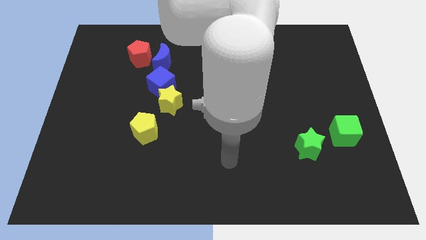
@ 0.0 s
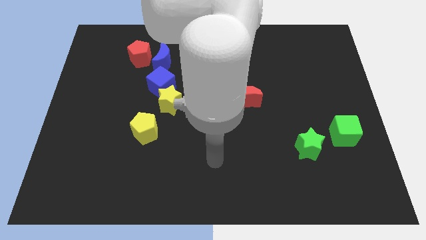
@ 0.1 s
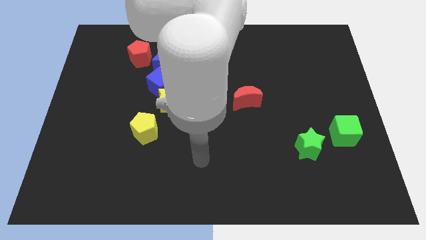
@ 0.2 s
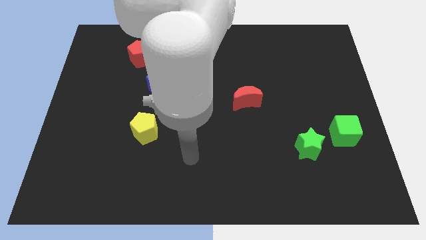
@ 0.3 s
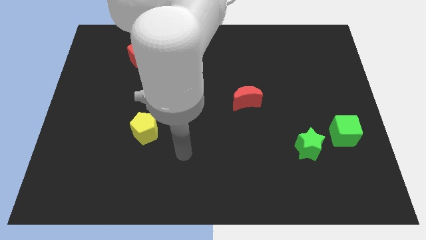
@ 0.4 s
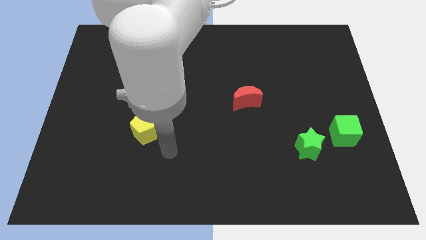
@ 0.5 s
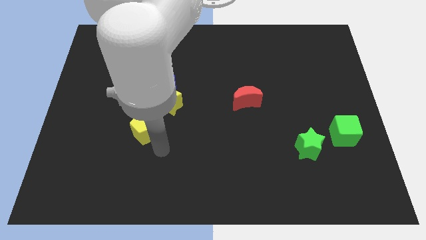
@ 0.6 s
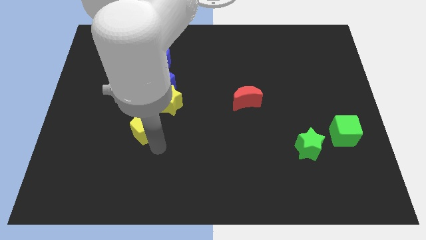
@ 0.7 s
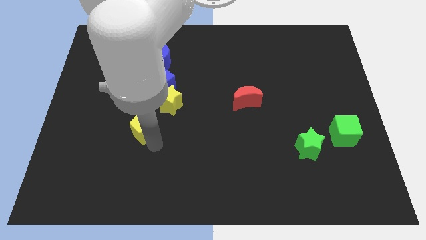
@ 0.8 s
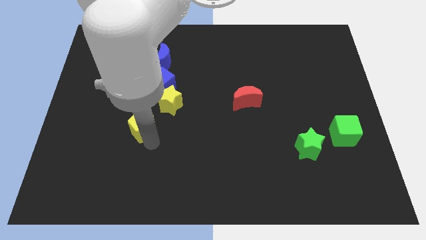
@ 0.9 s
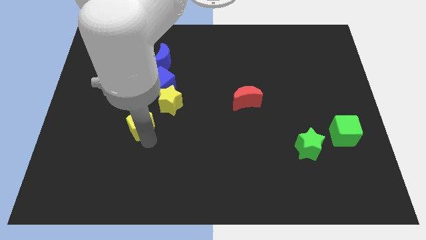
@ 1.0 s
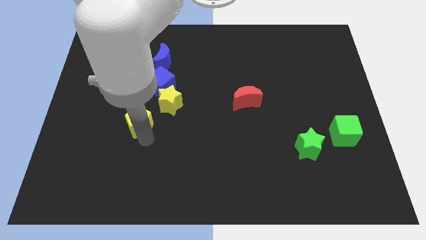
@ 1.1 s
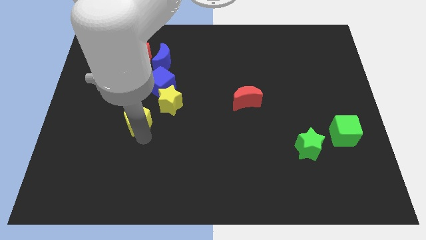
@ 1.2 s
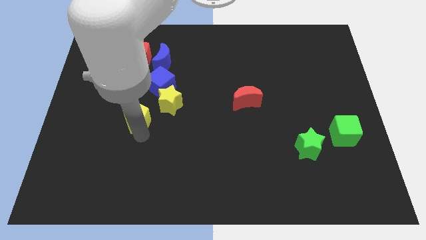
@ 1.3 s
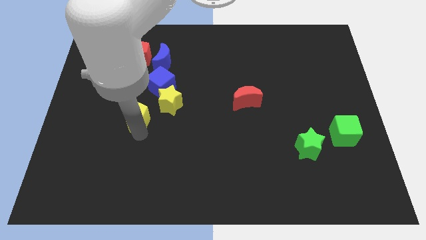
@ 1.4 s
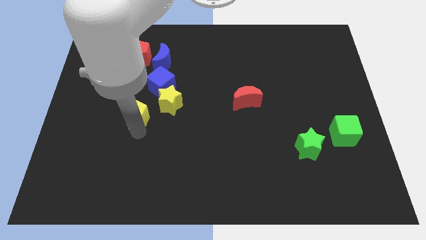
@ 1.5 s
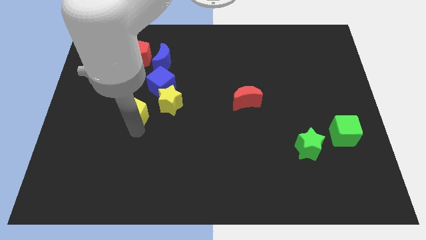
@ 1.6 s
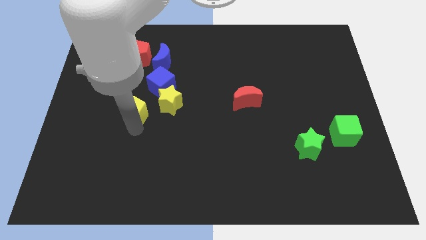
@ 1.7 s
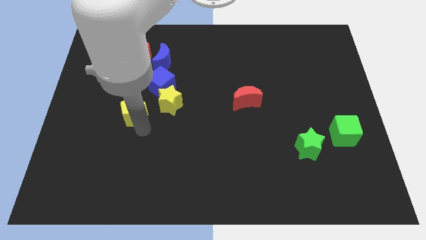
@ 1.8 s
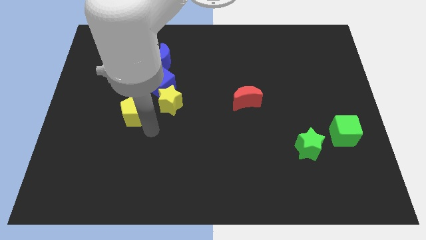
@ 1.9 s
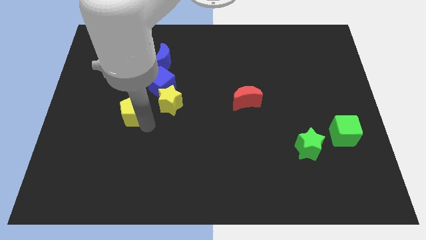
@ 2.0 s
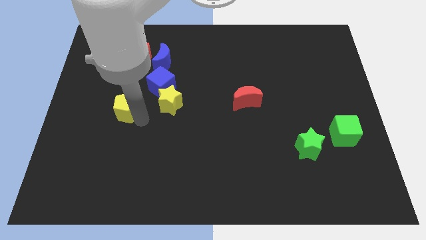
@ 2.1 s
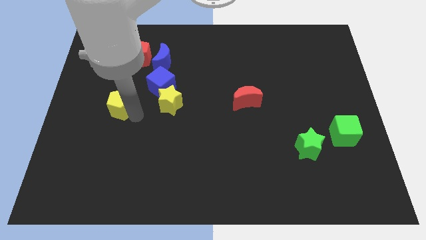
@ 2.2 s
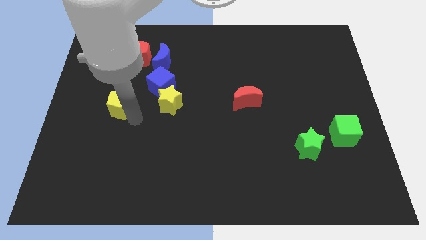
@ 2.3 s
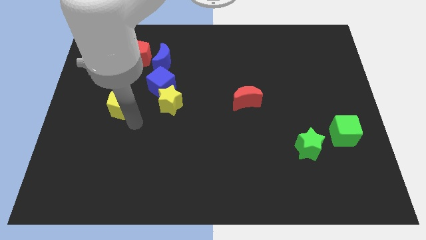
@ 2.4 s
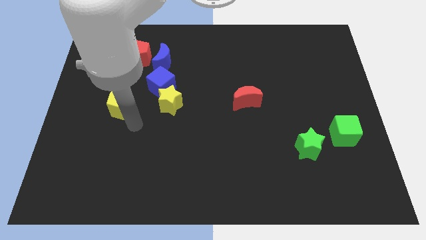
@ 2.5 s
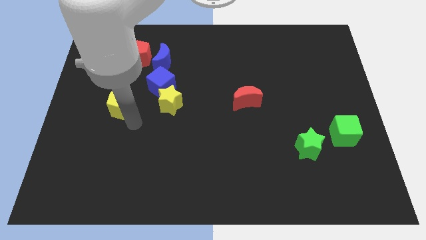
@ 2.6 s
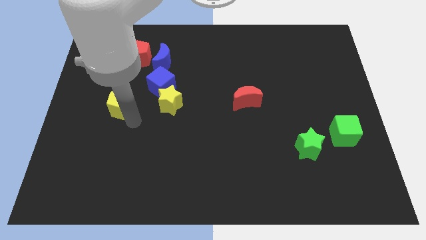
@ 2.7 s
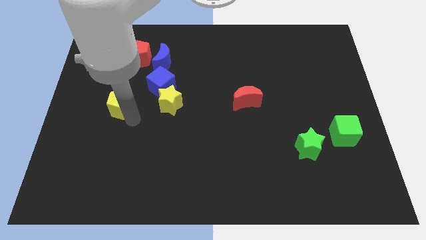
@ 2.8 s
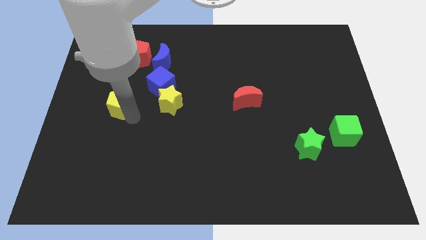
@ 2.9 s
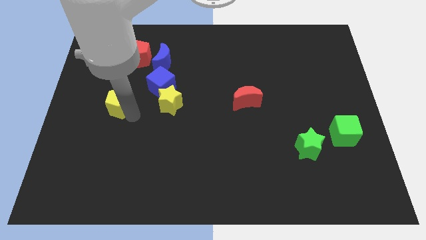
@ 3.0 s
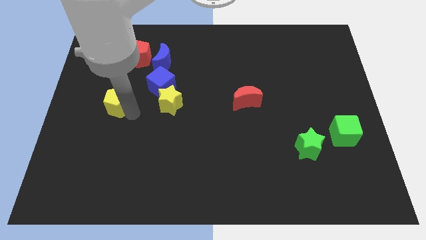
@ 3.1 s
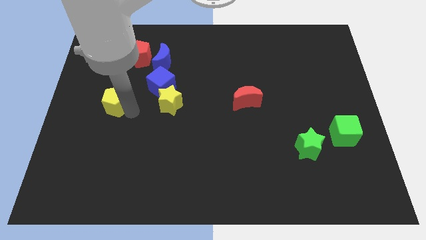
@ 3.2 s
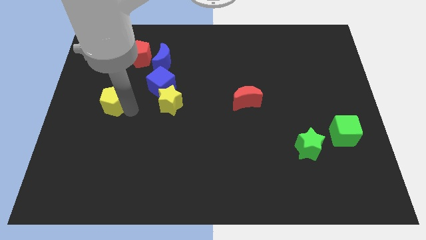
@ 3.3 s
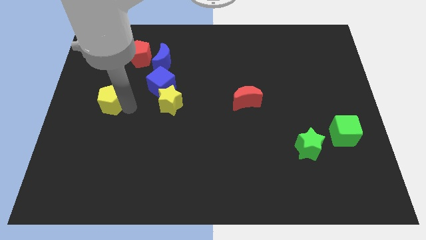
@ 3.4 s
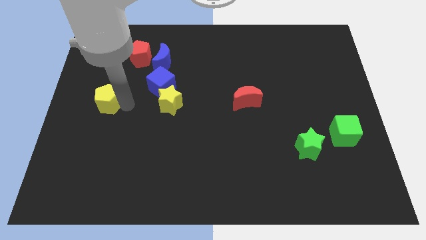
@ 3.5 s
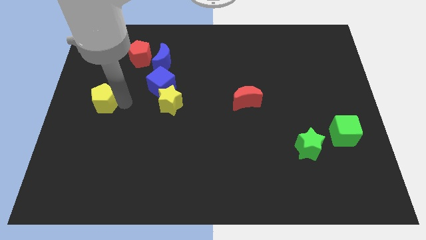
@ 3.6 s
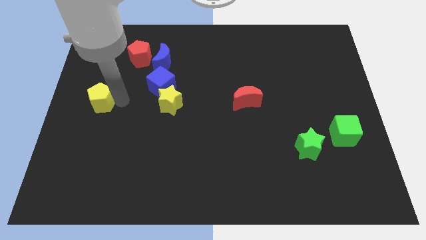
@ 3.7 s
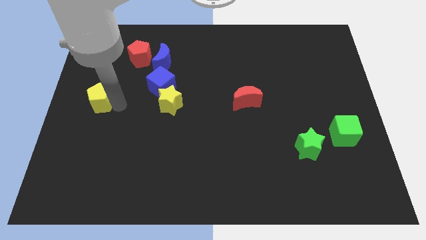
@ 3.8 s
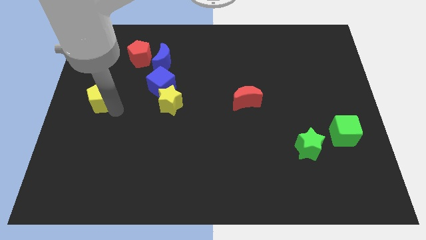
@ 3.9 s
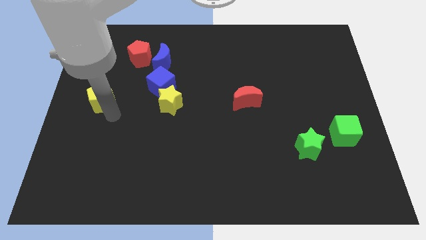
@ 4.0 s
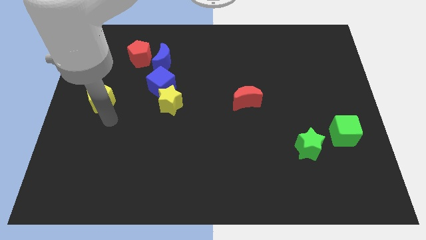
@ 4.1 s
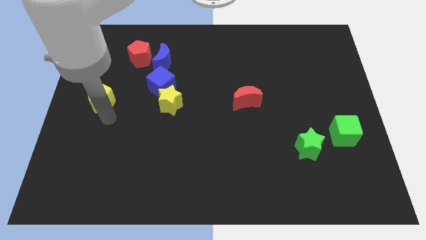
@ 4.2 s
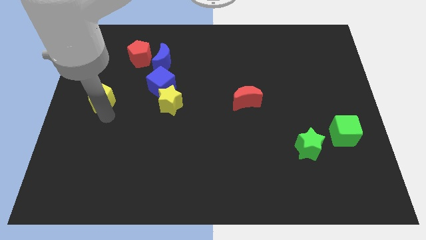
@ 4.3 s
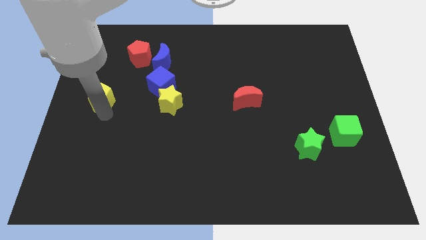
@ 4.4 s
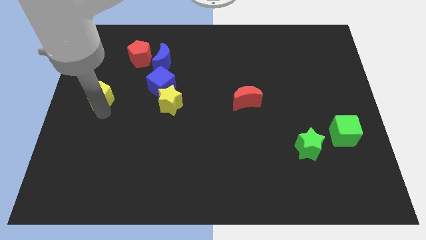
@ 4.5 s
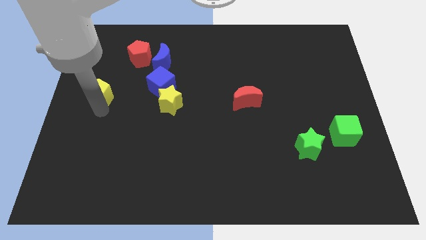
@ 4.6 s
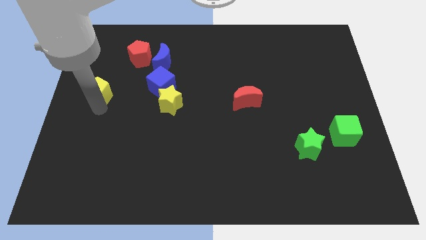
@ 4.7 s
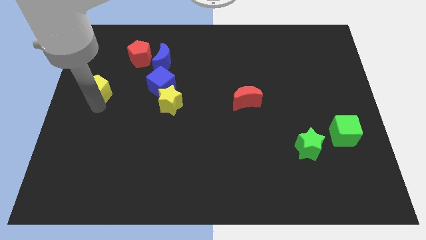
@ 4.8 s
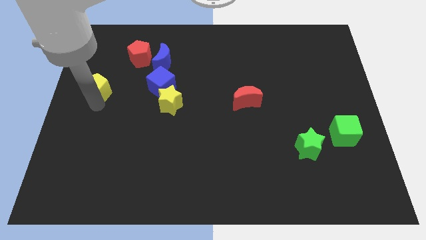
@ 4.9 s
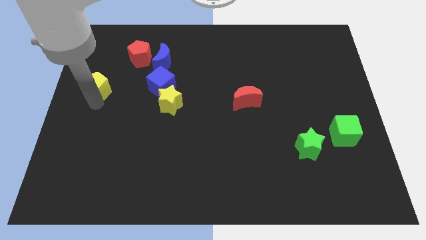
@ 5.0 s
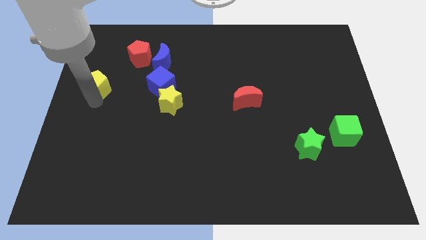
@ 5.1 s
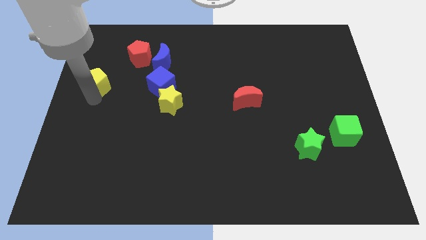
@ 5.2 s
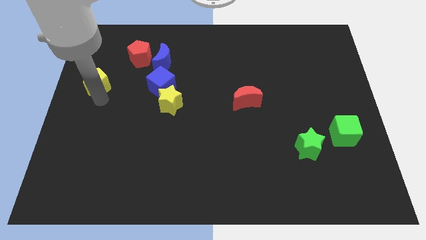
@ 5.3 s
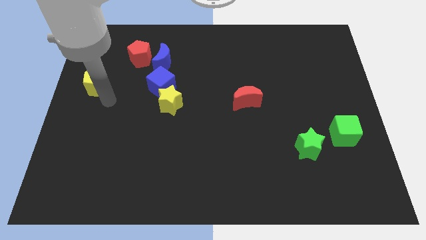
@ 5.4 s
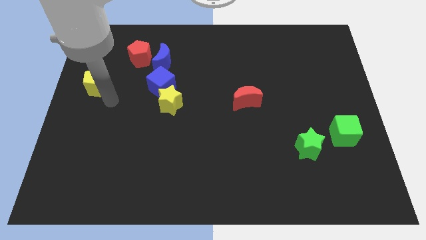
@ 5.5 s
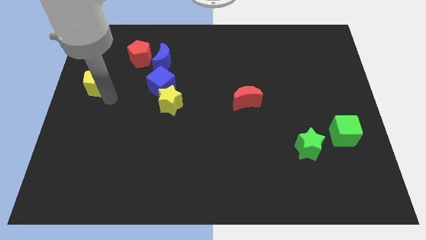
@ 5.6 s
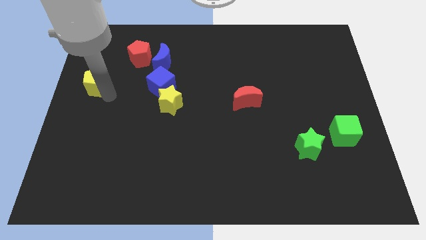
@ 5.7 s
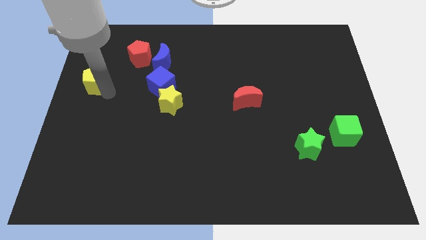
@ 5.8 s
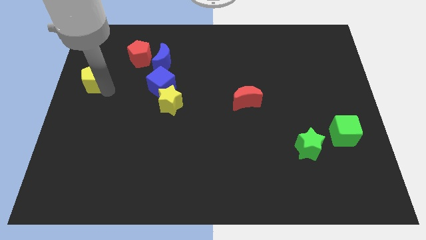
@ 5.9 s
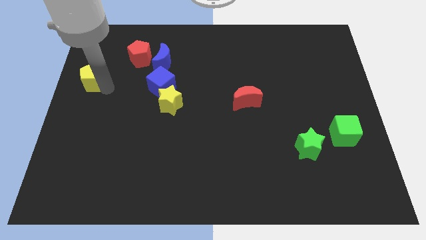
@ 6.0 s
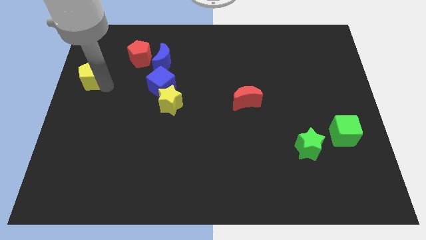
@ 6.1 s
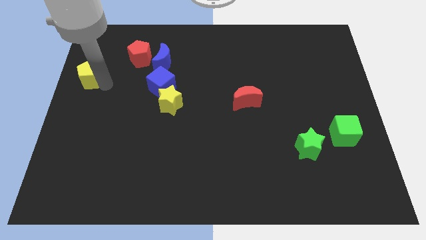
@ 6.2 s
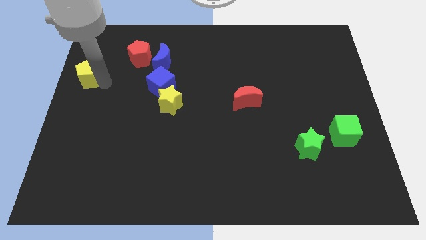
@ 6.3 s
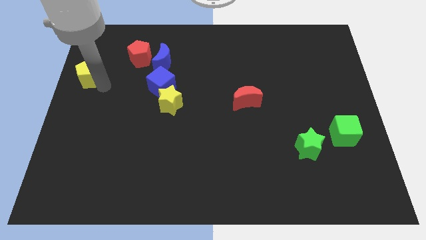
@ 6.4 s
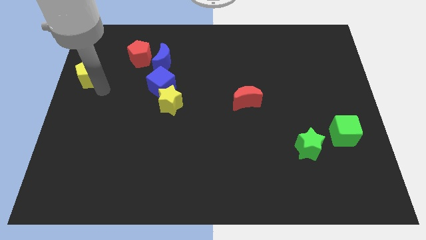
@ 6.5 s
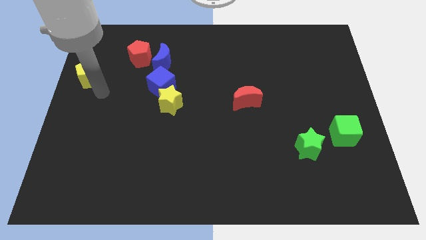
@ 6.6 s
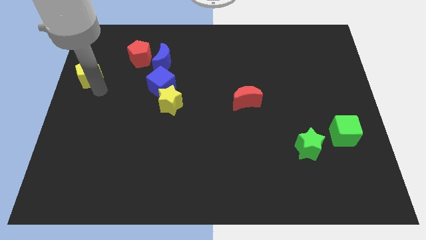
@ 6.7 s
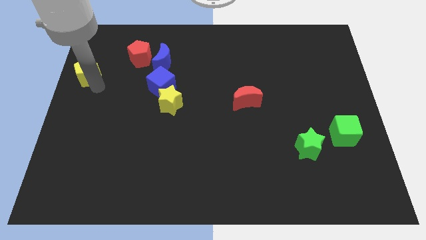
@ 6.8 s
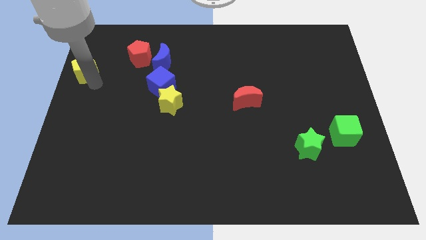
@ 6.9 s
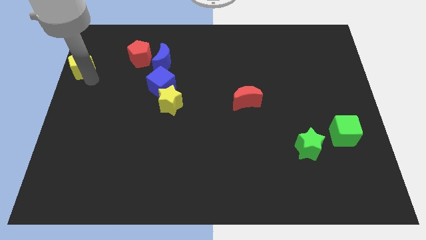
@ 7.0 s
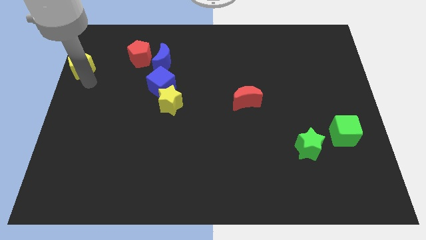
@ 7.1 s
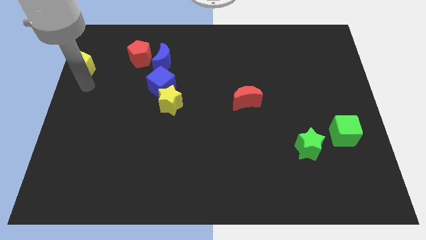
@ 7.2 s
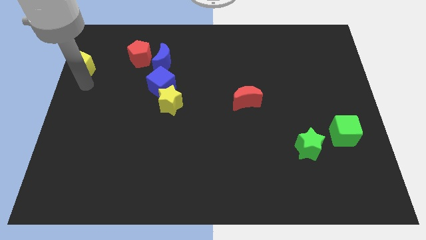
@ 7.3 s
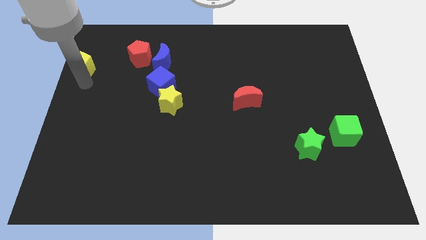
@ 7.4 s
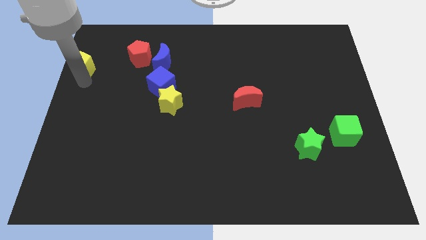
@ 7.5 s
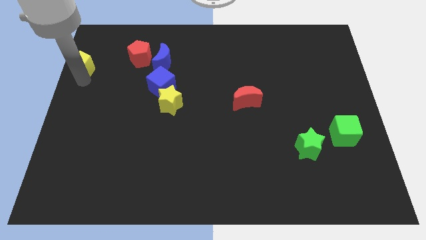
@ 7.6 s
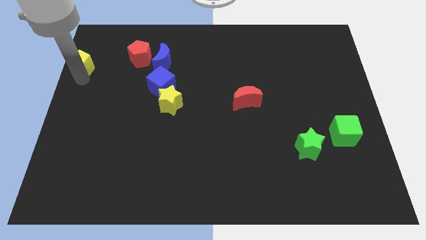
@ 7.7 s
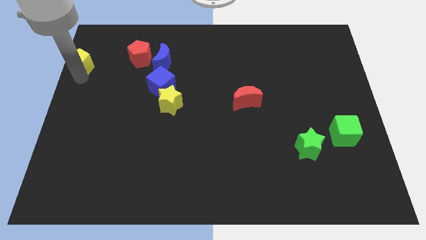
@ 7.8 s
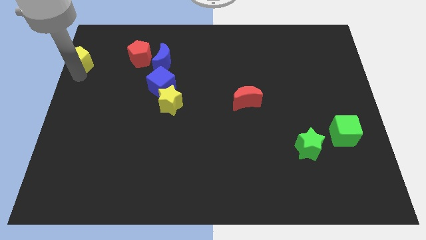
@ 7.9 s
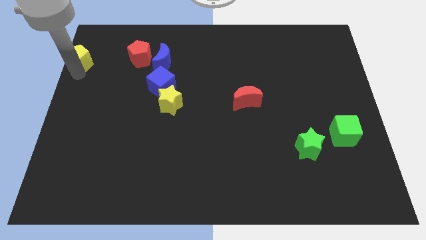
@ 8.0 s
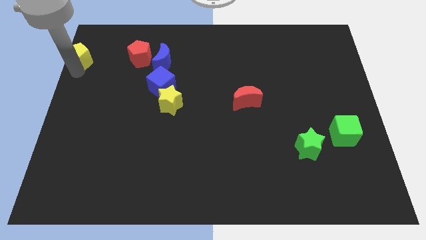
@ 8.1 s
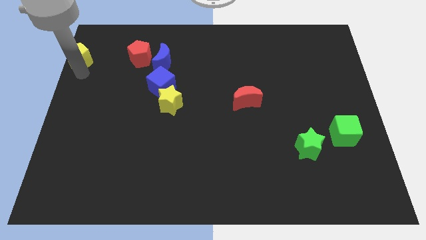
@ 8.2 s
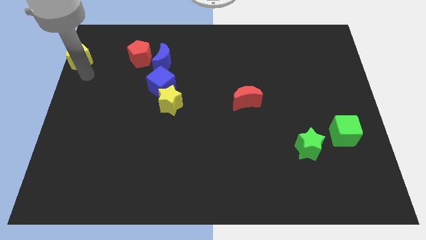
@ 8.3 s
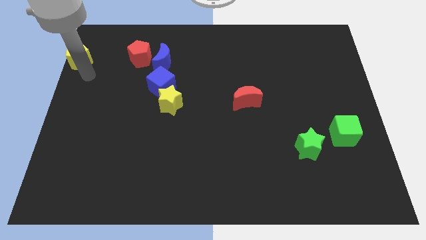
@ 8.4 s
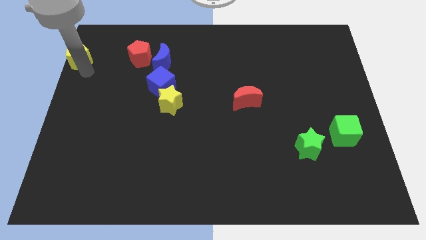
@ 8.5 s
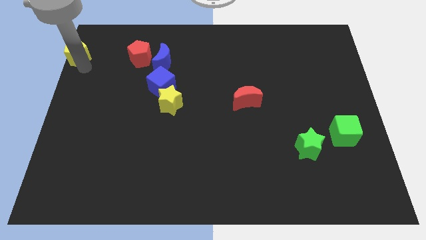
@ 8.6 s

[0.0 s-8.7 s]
put the yellow pentagon to the top left of the board
